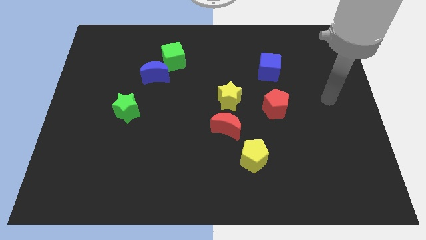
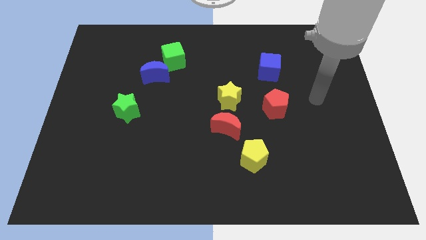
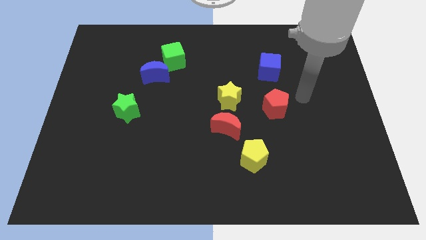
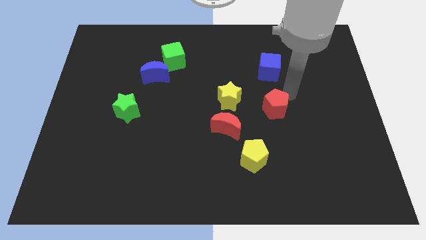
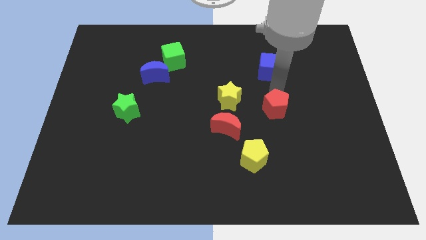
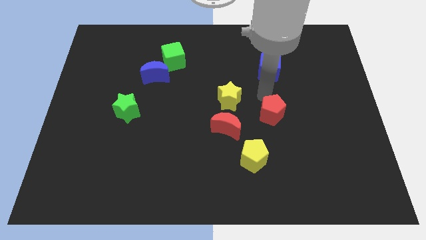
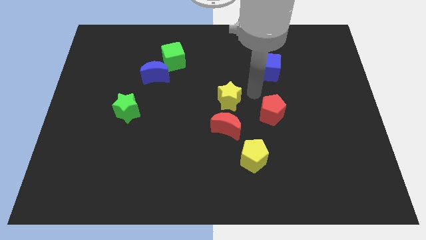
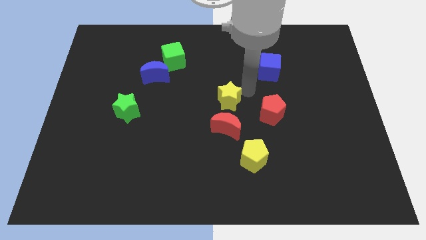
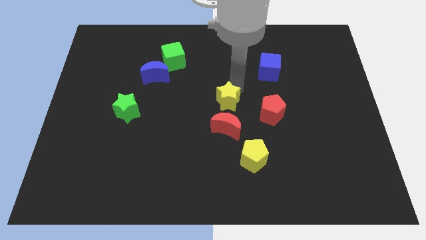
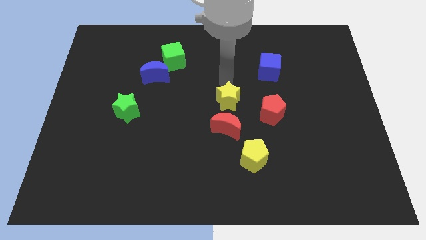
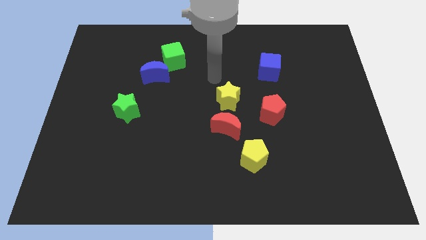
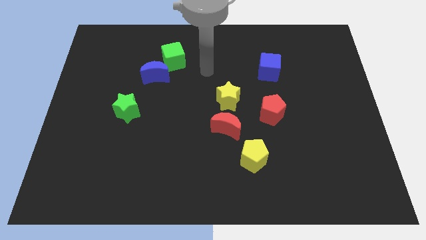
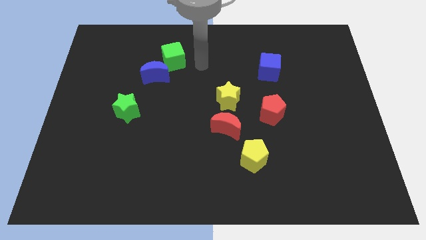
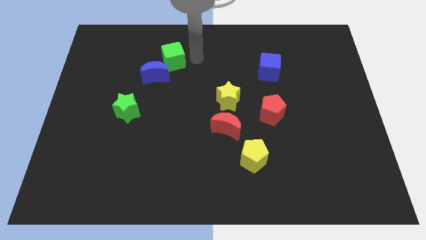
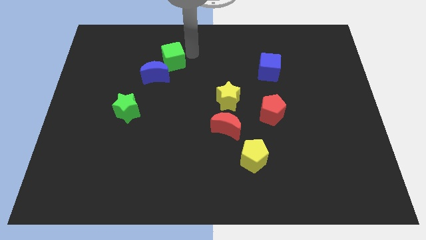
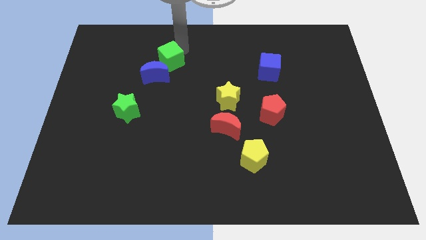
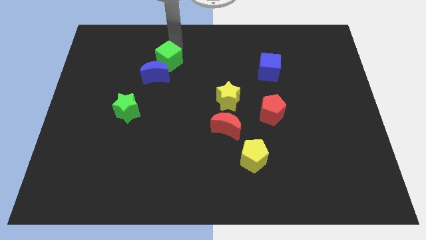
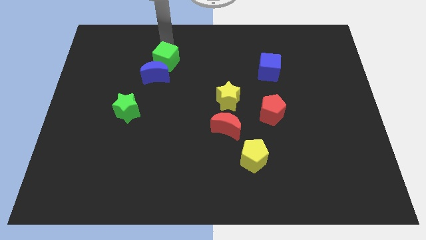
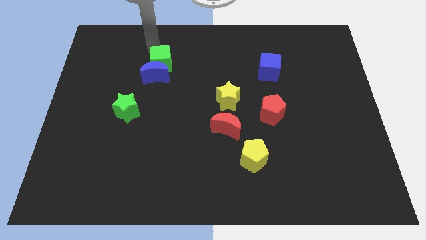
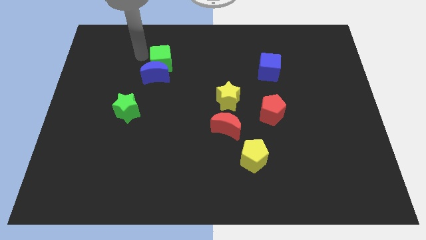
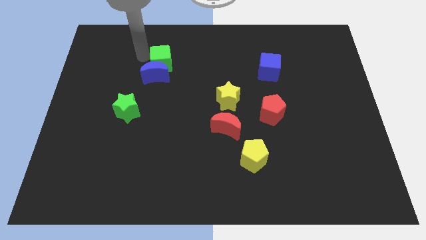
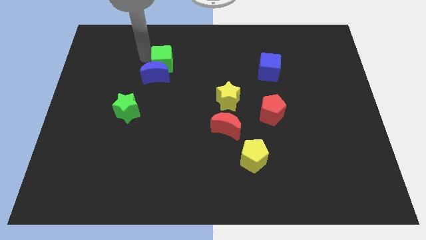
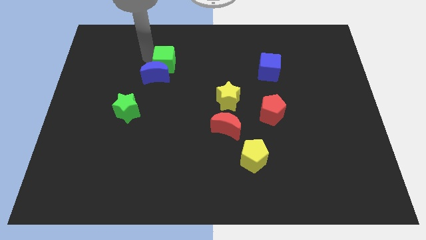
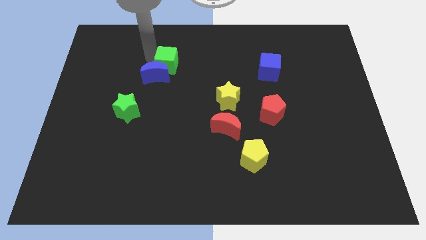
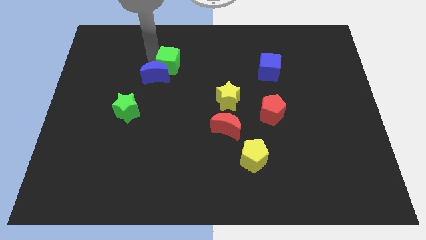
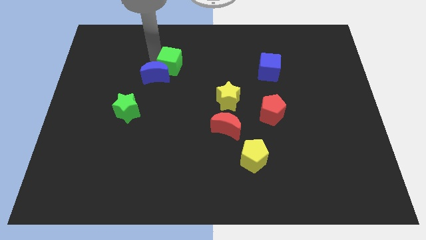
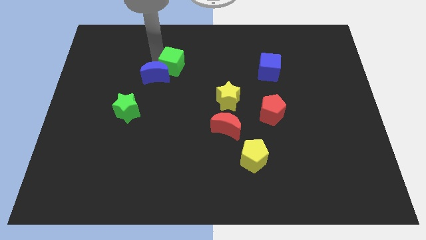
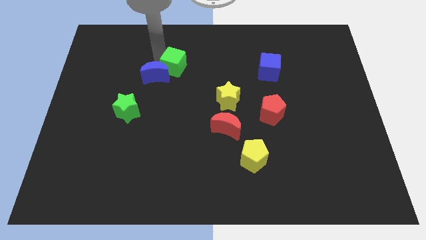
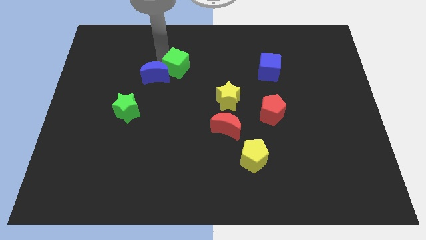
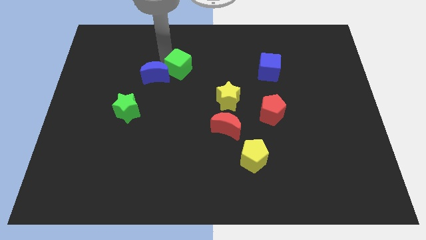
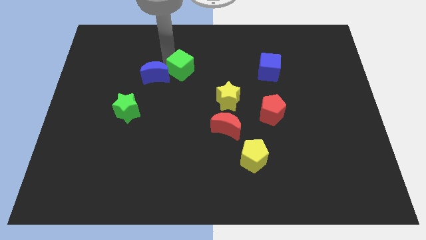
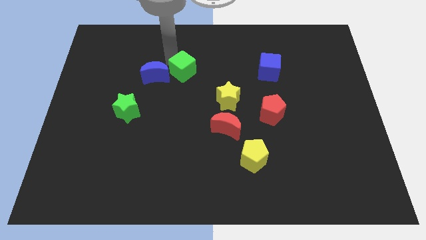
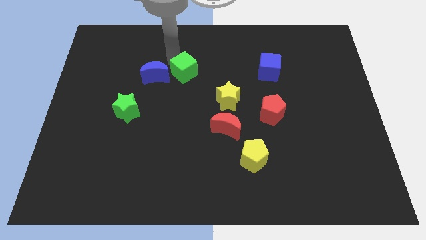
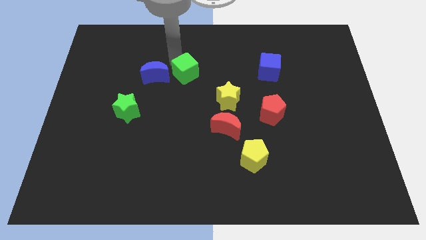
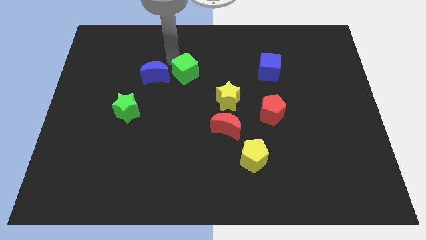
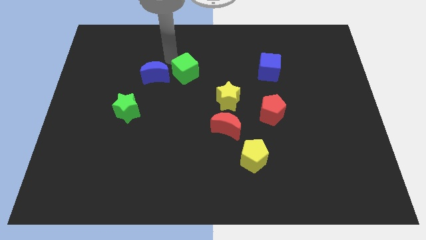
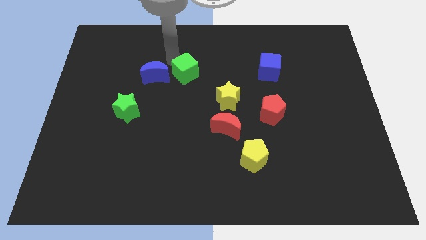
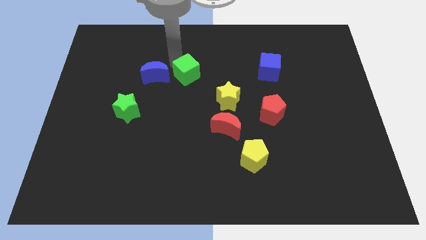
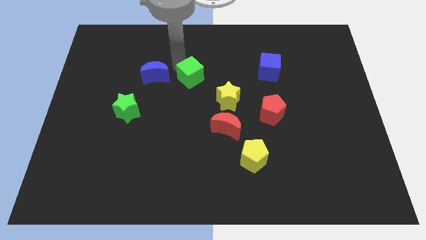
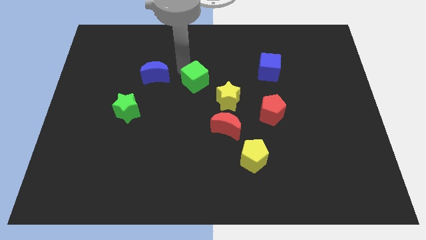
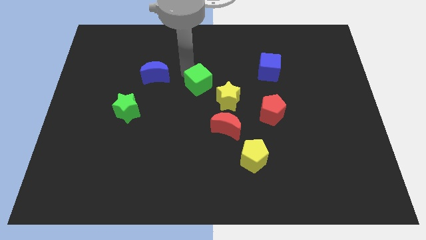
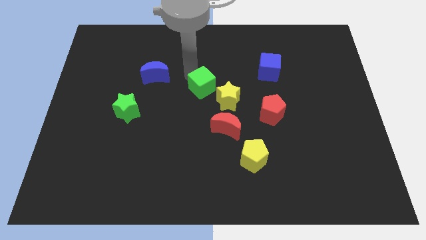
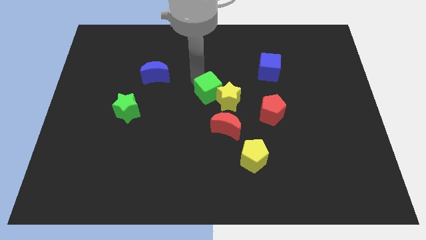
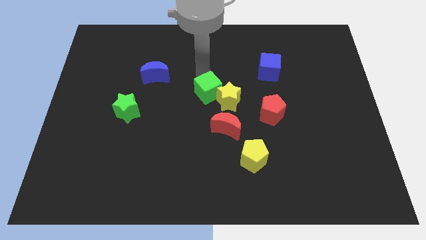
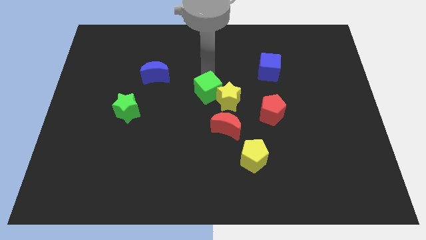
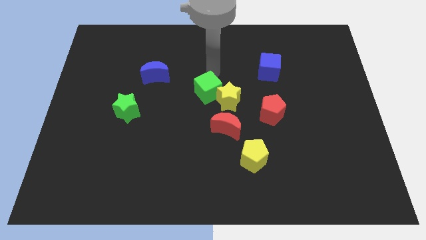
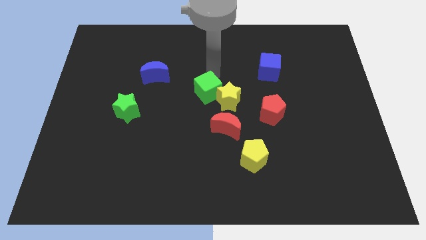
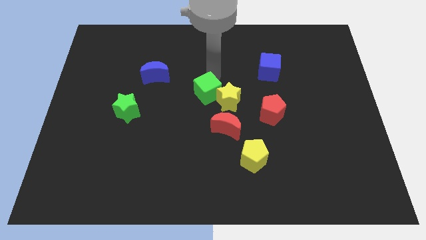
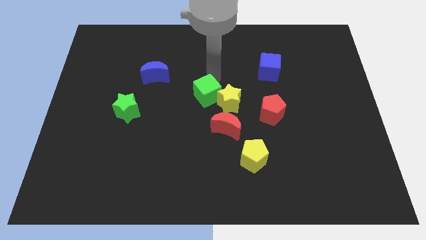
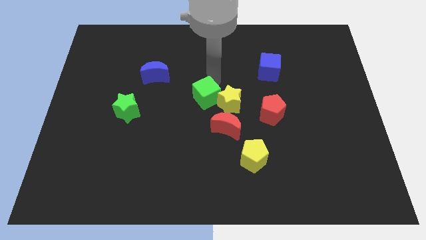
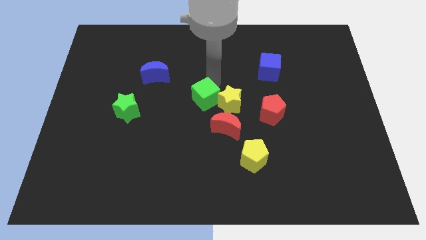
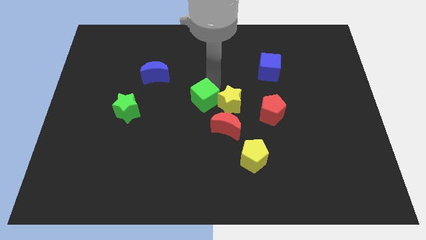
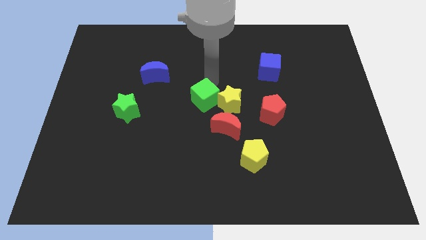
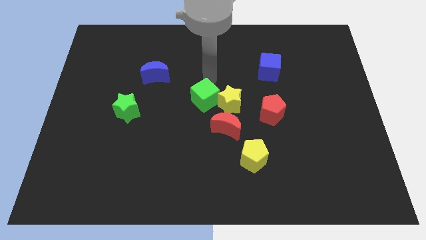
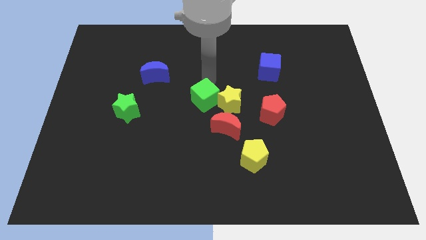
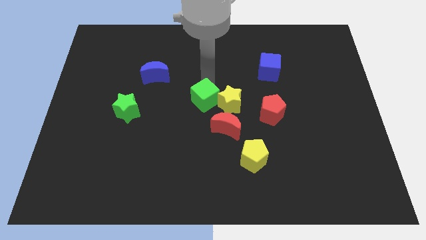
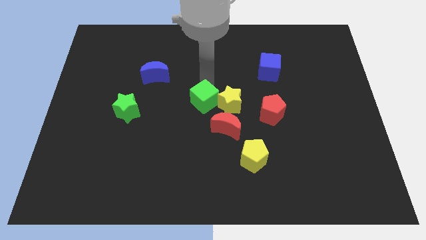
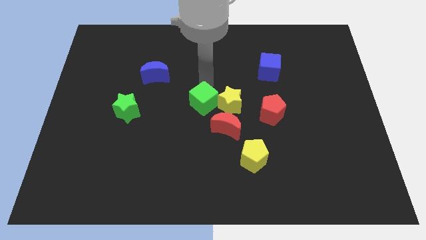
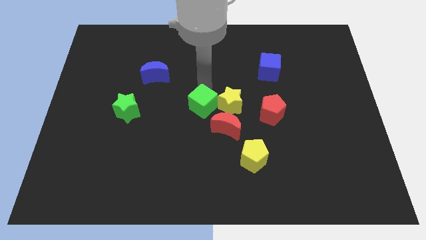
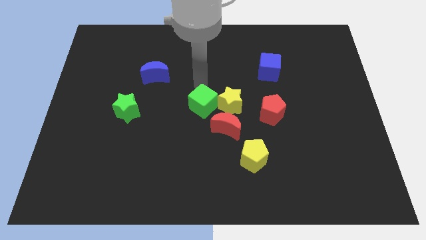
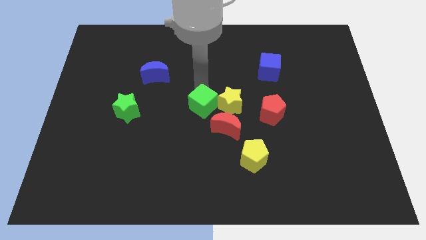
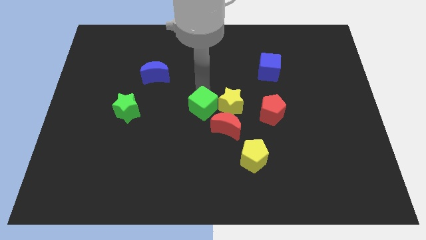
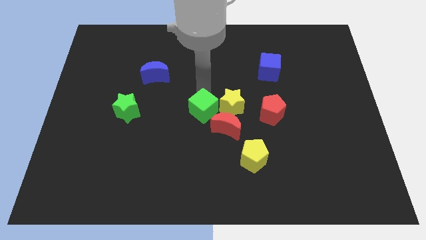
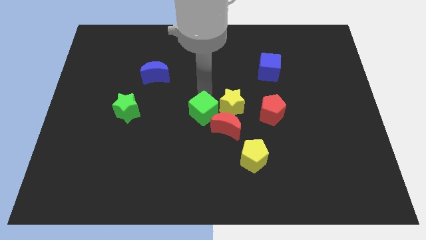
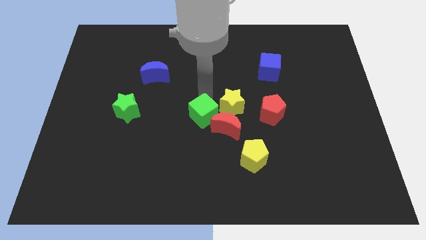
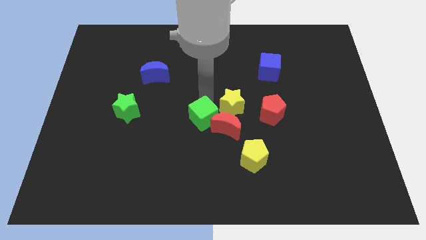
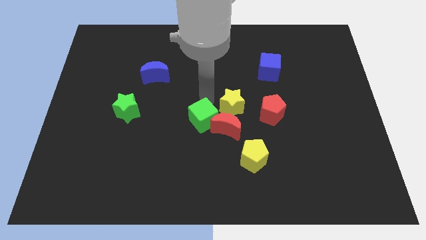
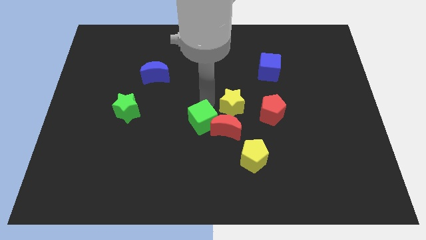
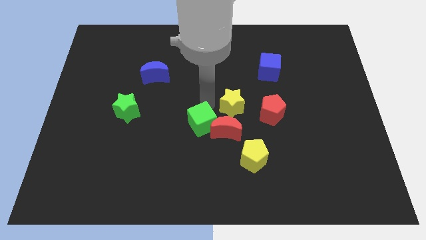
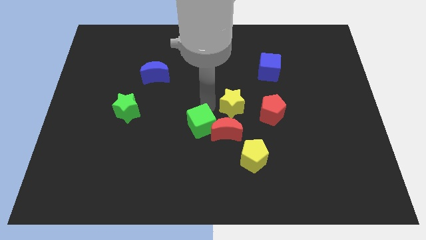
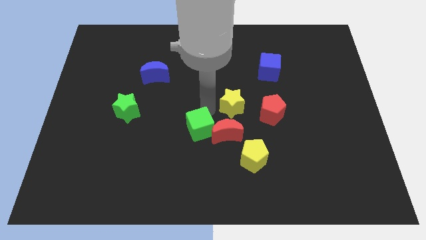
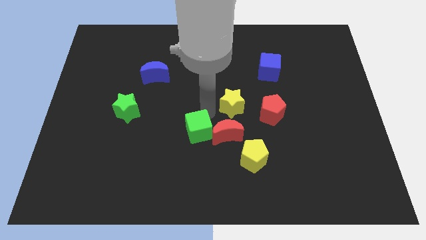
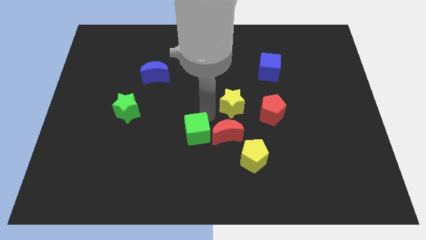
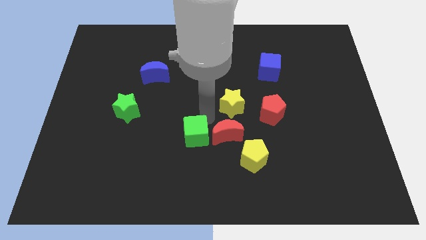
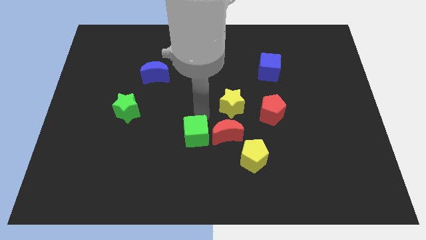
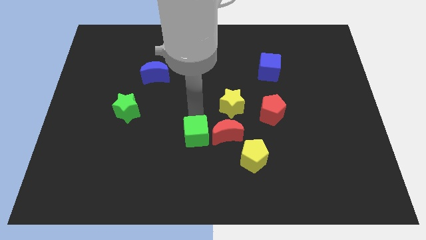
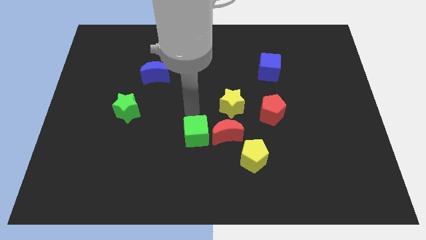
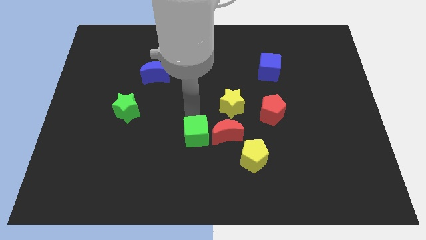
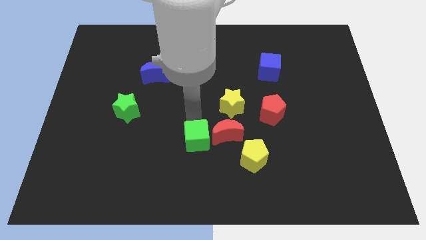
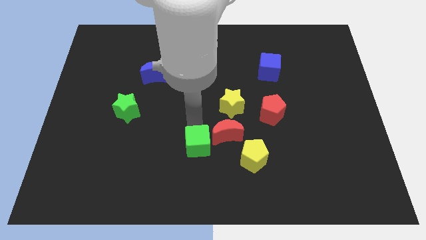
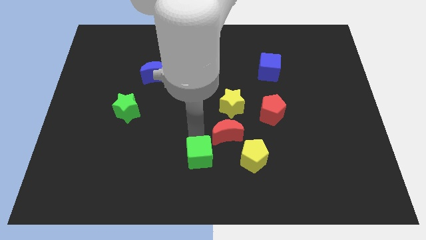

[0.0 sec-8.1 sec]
put the green cube to the bottom
